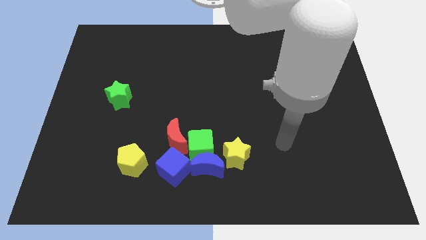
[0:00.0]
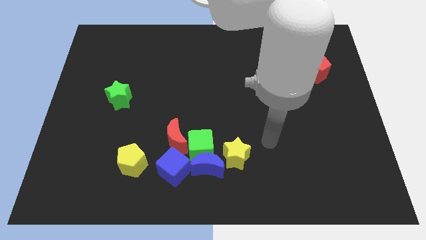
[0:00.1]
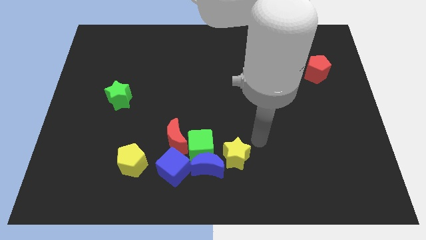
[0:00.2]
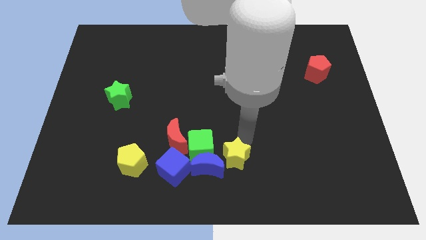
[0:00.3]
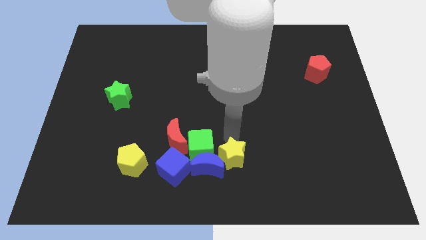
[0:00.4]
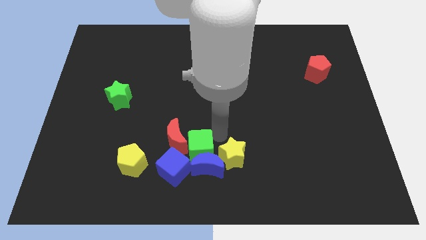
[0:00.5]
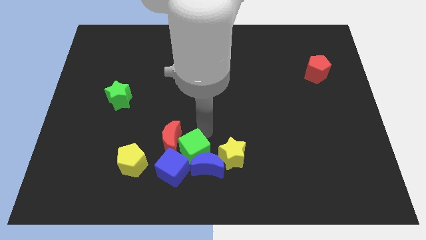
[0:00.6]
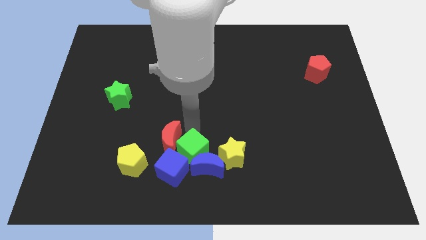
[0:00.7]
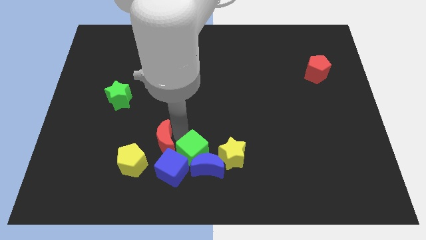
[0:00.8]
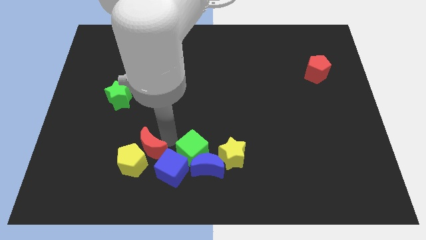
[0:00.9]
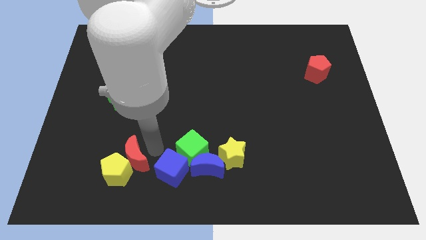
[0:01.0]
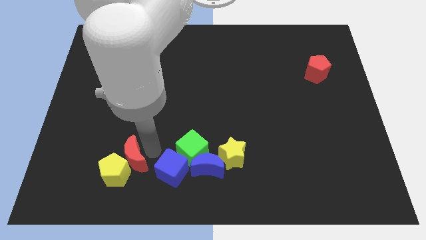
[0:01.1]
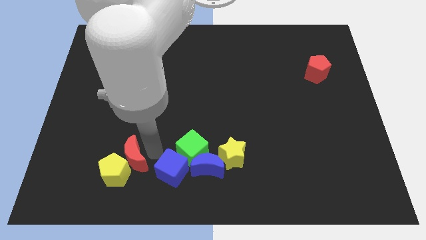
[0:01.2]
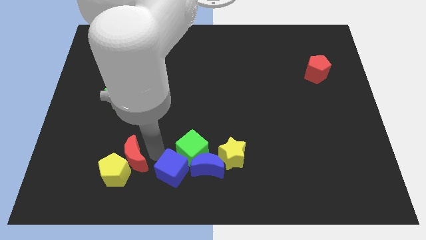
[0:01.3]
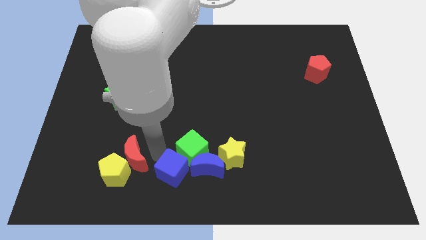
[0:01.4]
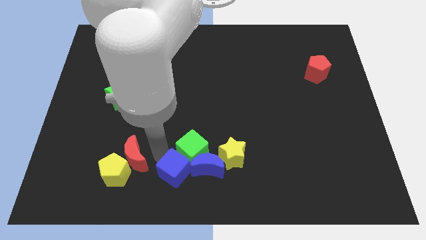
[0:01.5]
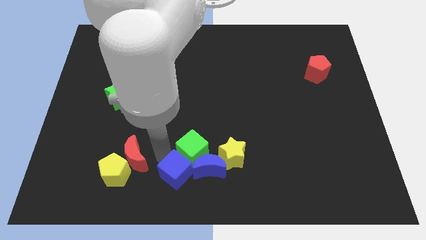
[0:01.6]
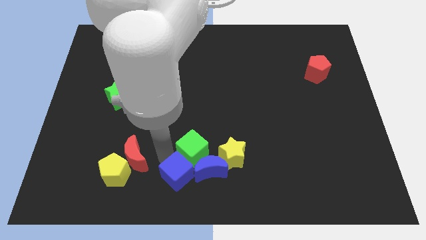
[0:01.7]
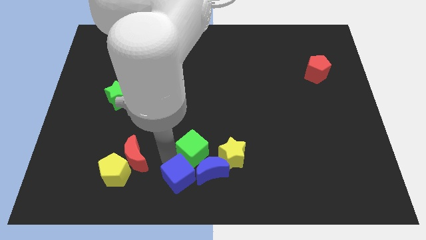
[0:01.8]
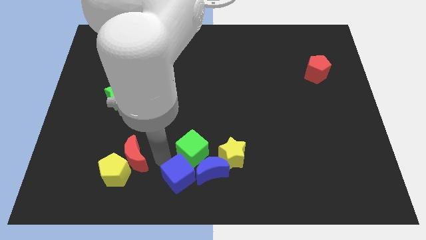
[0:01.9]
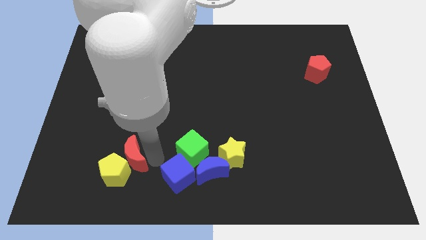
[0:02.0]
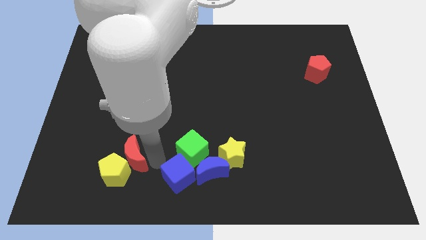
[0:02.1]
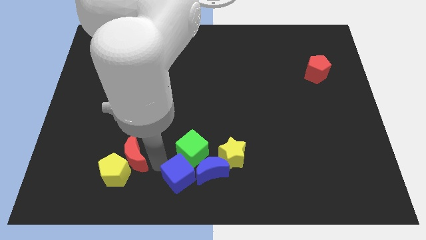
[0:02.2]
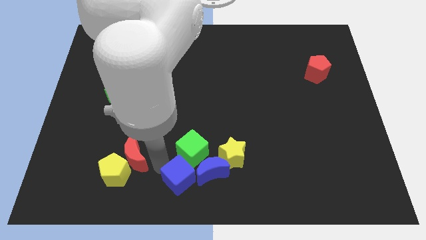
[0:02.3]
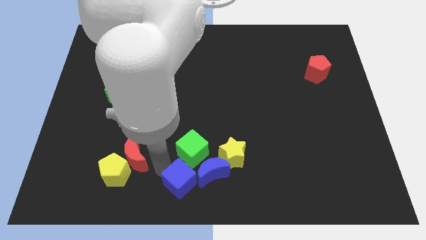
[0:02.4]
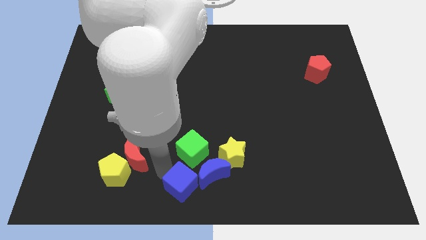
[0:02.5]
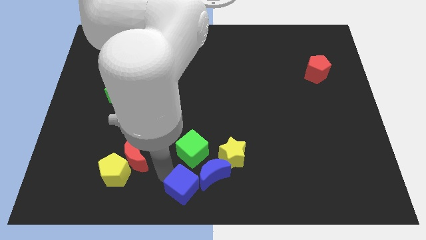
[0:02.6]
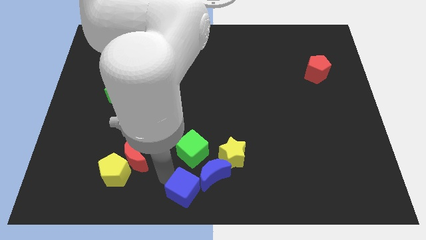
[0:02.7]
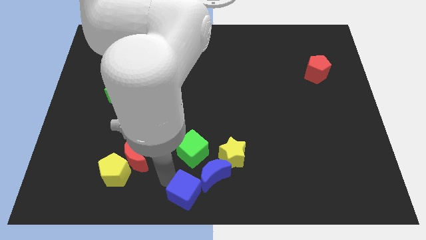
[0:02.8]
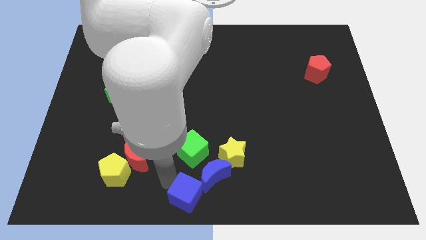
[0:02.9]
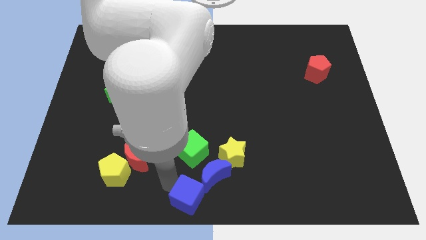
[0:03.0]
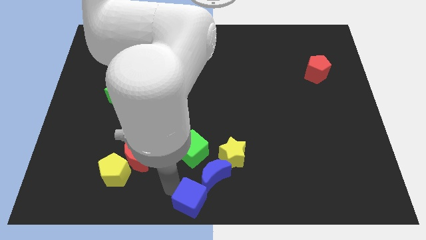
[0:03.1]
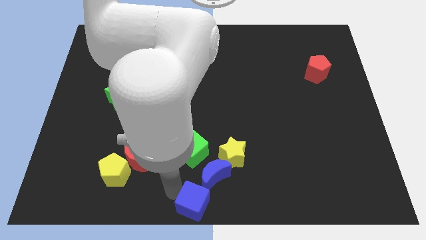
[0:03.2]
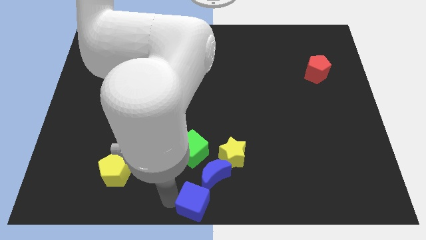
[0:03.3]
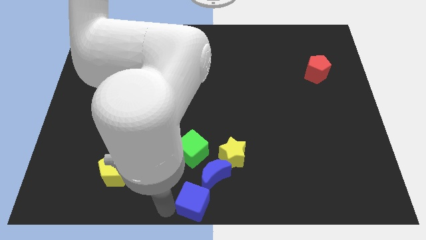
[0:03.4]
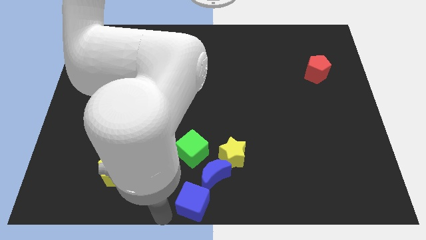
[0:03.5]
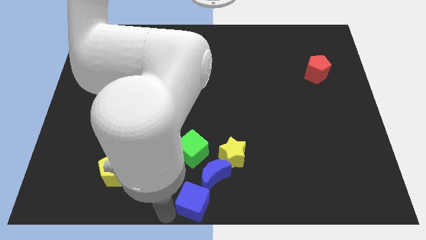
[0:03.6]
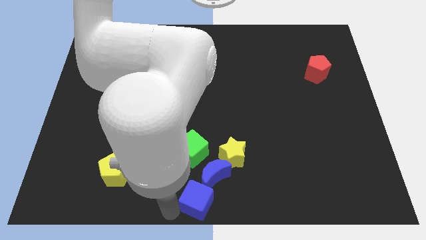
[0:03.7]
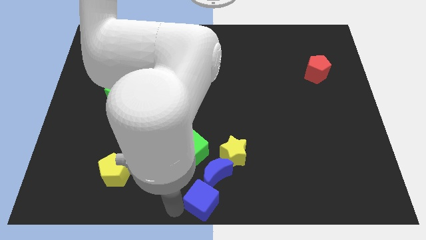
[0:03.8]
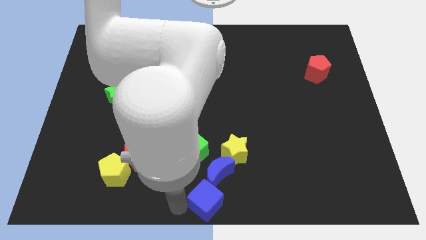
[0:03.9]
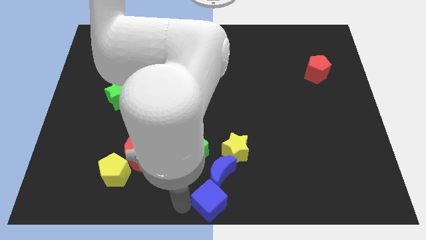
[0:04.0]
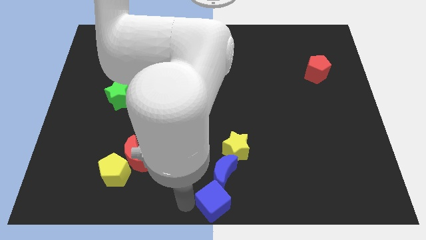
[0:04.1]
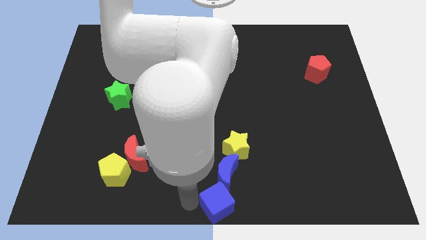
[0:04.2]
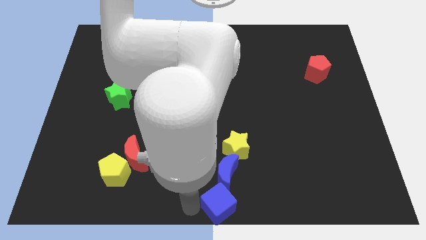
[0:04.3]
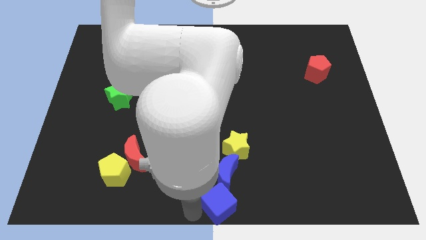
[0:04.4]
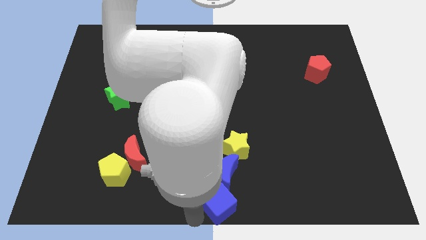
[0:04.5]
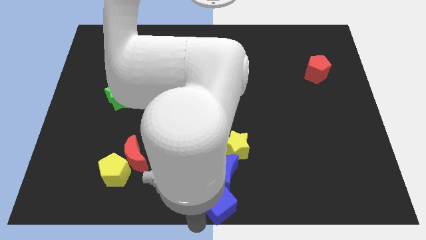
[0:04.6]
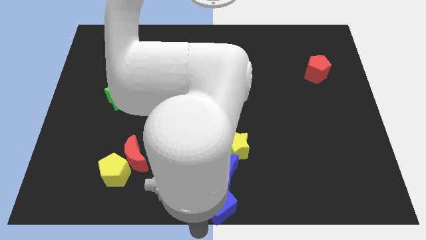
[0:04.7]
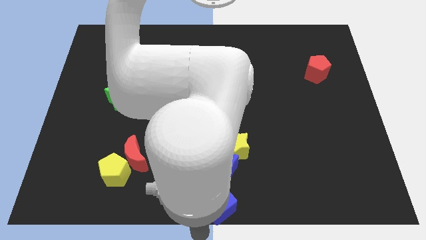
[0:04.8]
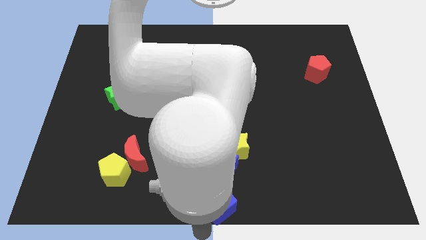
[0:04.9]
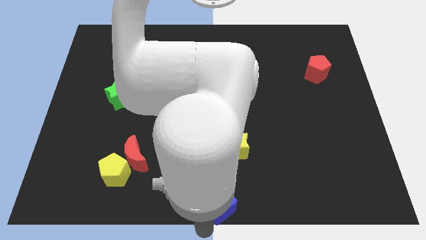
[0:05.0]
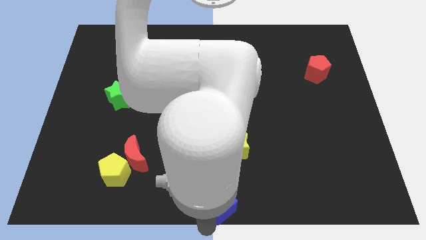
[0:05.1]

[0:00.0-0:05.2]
slightly push the blue cube to the right

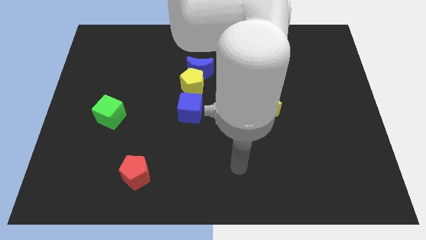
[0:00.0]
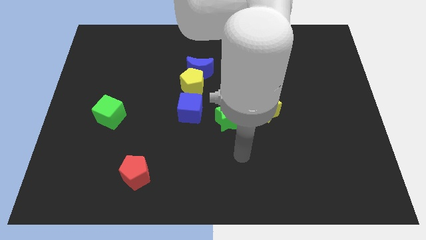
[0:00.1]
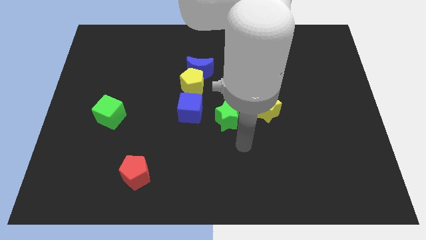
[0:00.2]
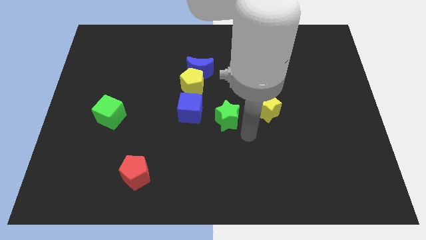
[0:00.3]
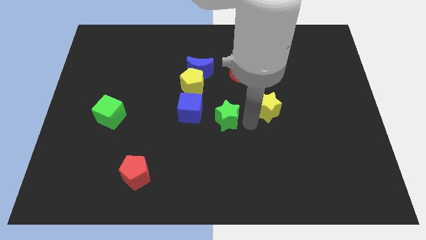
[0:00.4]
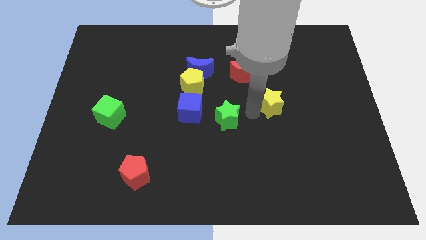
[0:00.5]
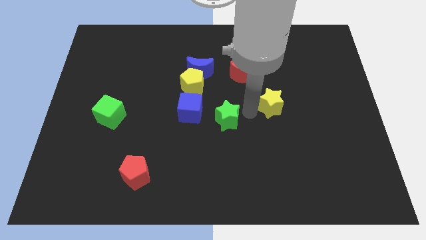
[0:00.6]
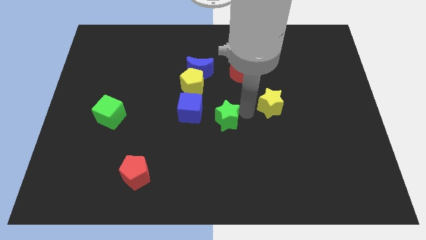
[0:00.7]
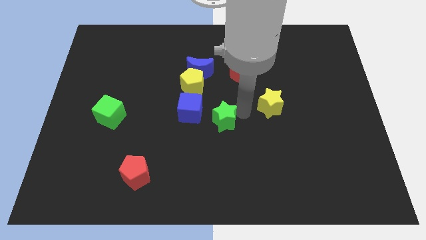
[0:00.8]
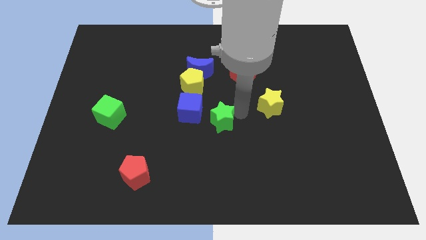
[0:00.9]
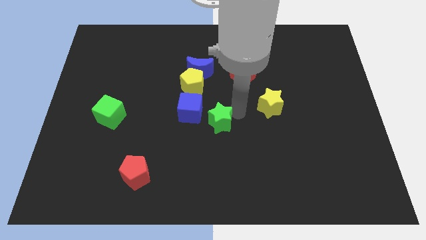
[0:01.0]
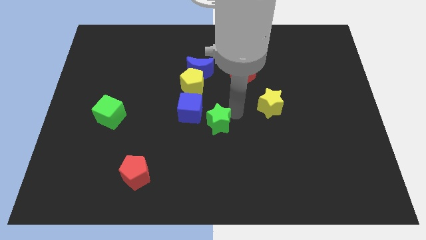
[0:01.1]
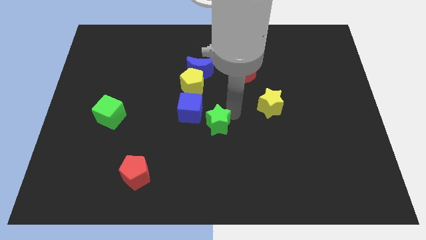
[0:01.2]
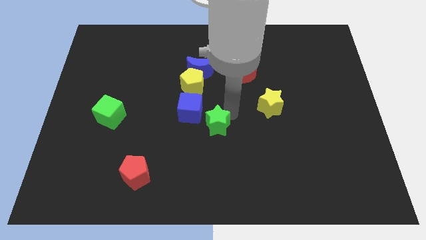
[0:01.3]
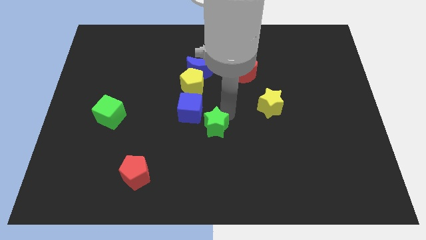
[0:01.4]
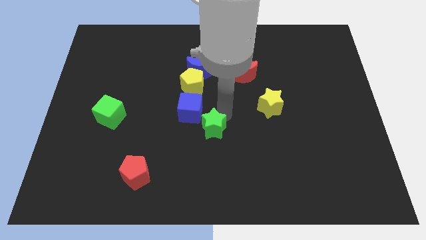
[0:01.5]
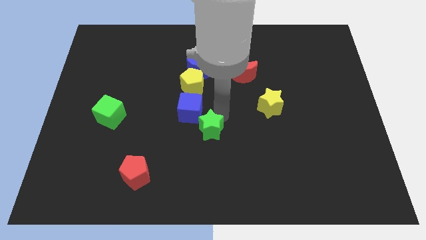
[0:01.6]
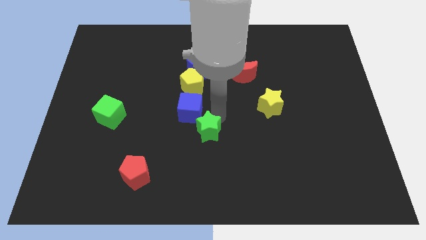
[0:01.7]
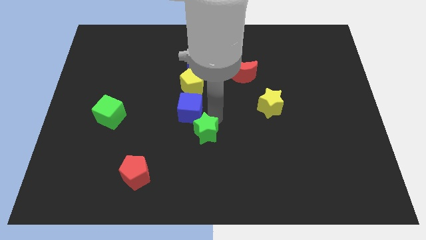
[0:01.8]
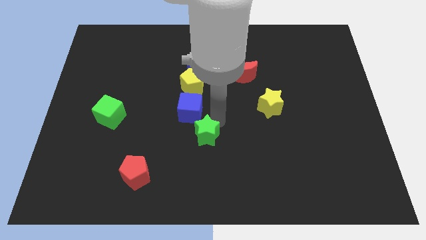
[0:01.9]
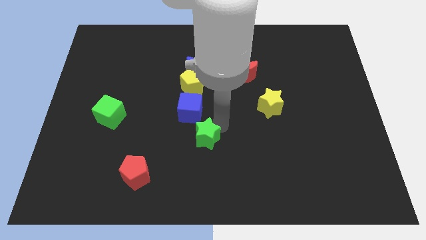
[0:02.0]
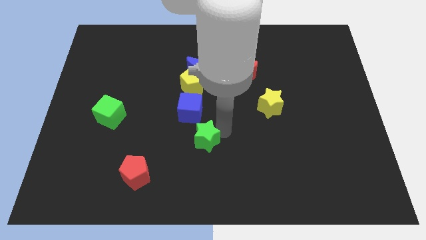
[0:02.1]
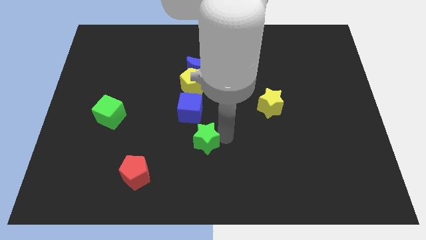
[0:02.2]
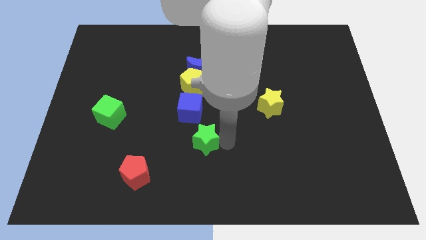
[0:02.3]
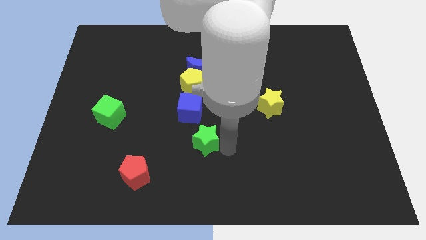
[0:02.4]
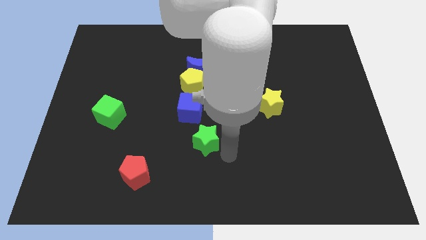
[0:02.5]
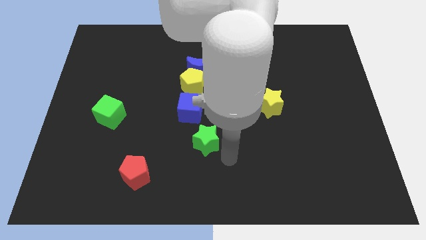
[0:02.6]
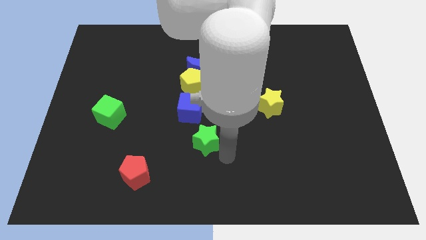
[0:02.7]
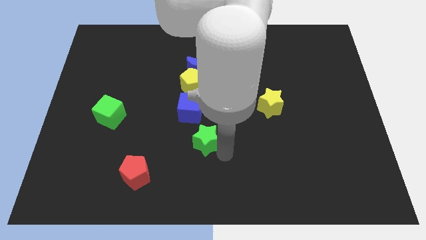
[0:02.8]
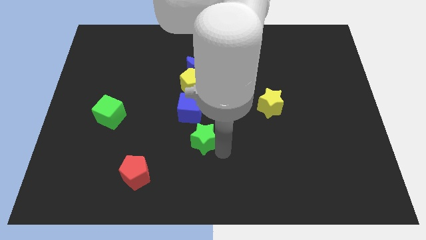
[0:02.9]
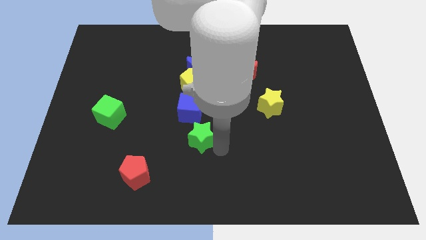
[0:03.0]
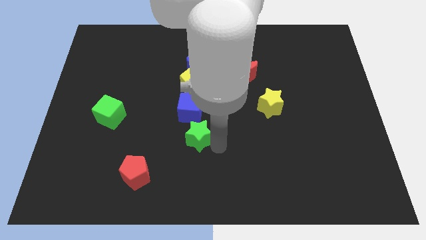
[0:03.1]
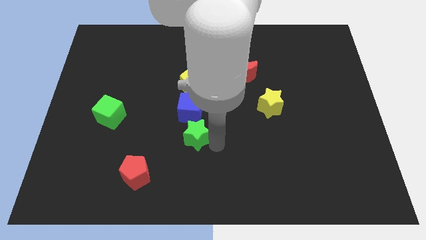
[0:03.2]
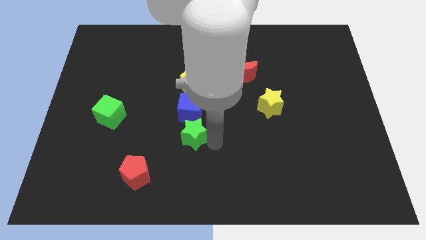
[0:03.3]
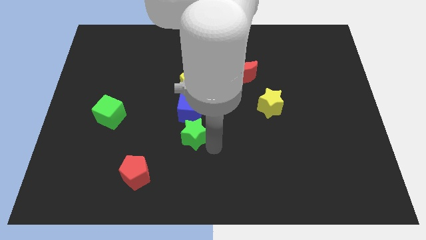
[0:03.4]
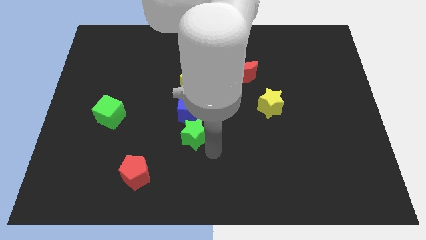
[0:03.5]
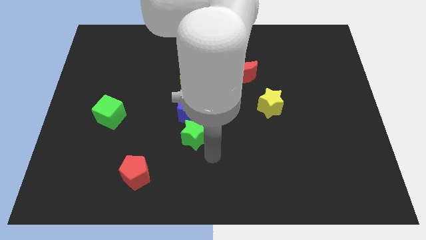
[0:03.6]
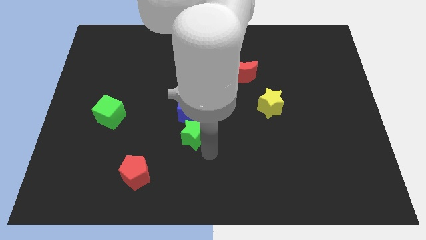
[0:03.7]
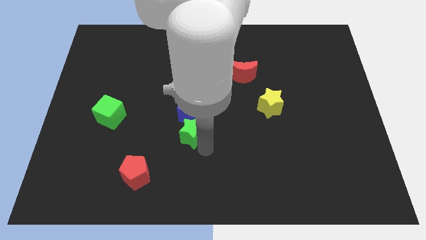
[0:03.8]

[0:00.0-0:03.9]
slide the green star to the left a little bit
